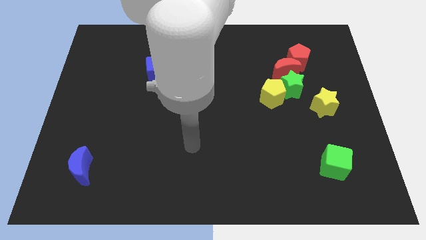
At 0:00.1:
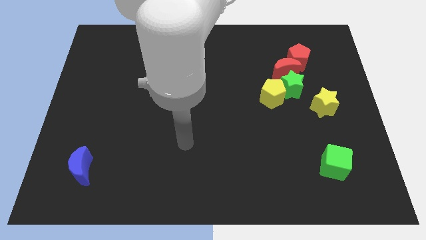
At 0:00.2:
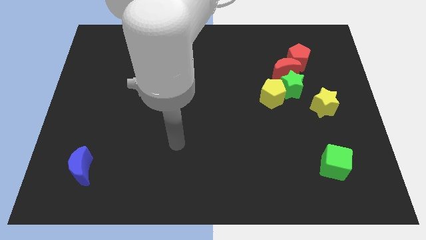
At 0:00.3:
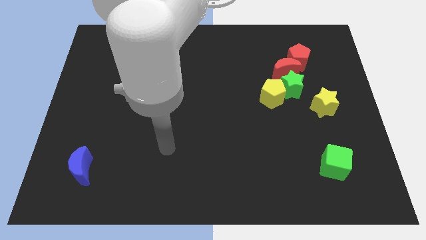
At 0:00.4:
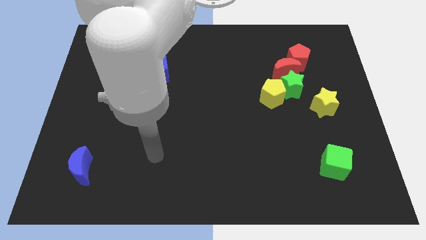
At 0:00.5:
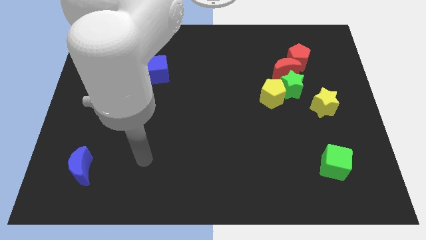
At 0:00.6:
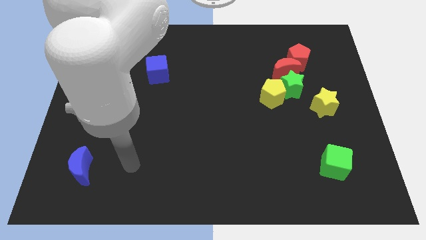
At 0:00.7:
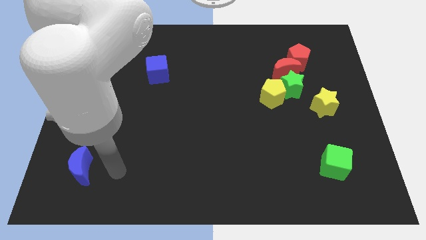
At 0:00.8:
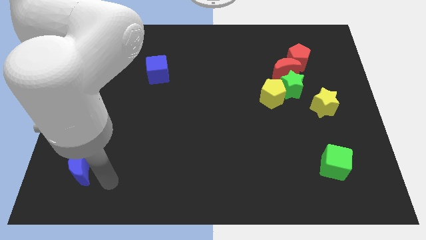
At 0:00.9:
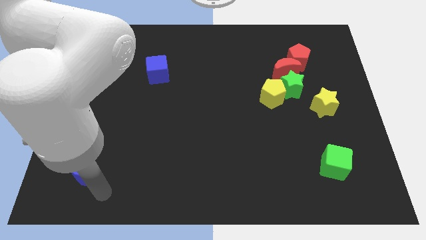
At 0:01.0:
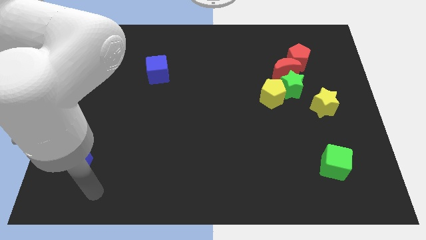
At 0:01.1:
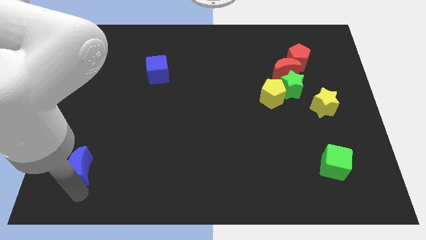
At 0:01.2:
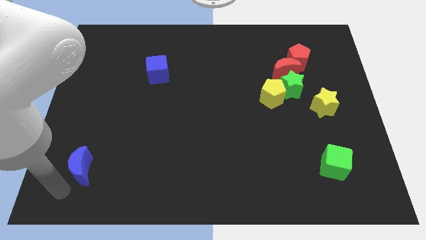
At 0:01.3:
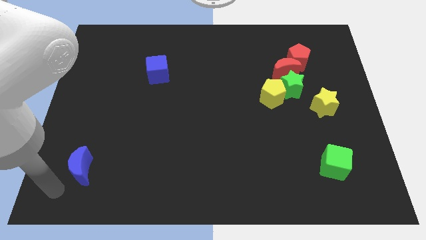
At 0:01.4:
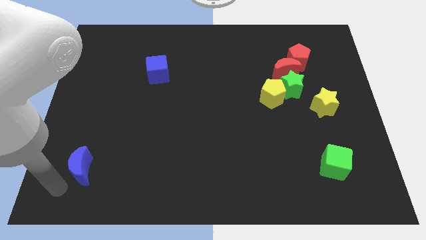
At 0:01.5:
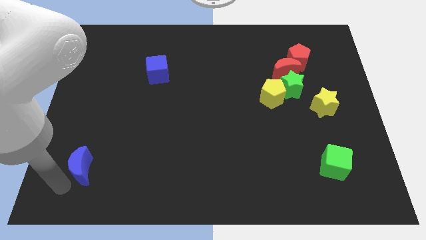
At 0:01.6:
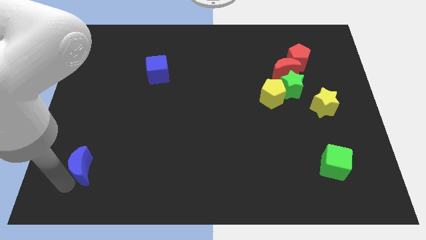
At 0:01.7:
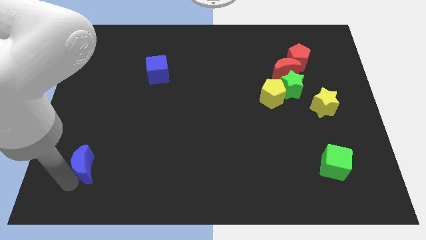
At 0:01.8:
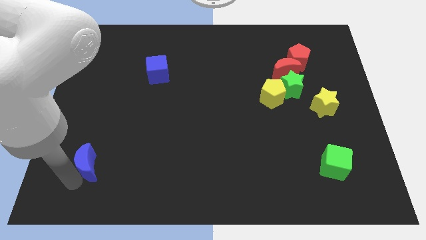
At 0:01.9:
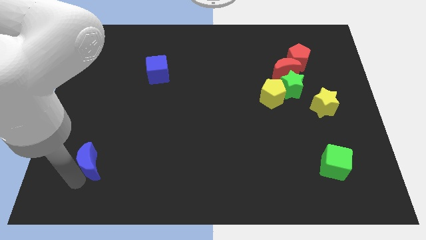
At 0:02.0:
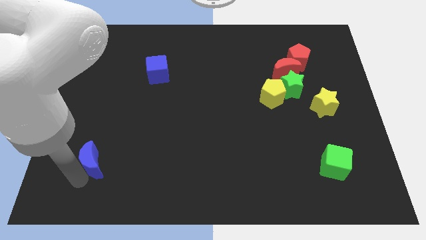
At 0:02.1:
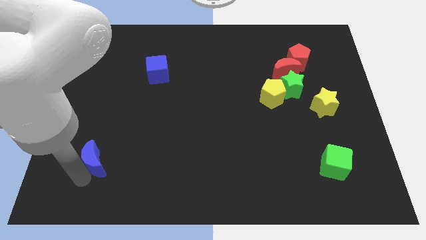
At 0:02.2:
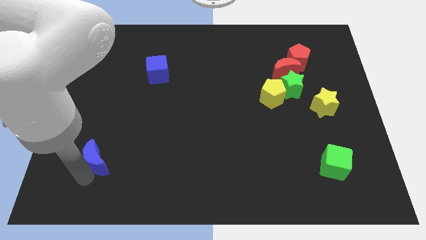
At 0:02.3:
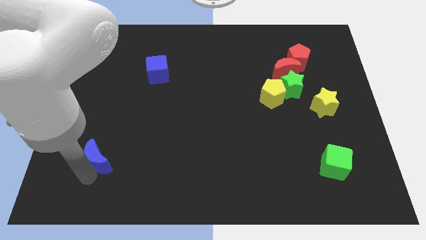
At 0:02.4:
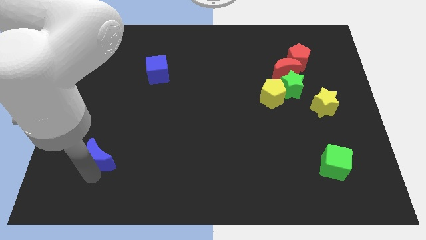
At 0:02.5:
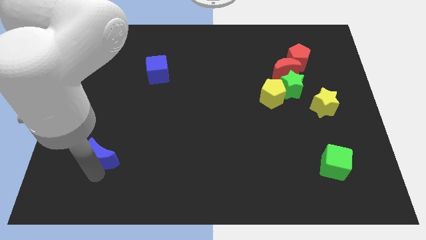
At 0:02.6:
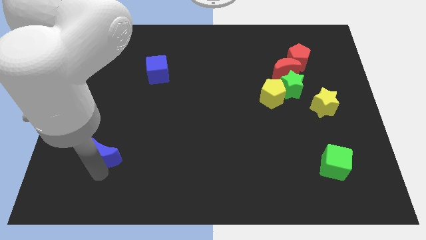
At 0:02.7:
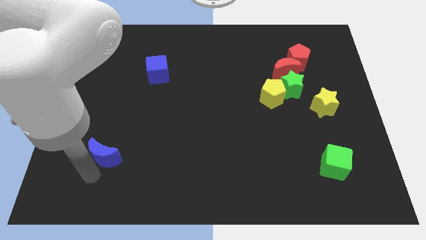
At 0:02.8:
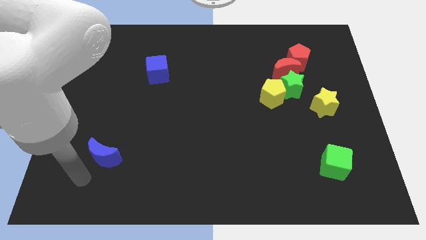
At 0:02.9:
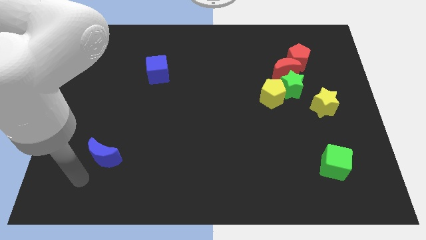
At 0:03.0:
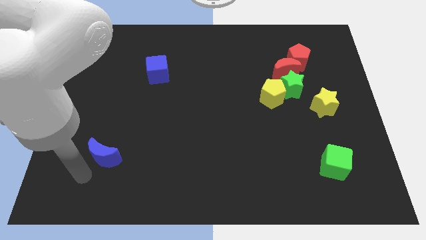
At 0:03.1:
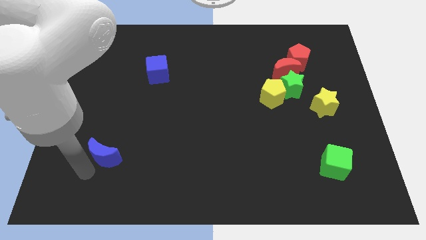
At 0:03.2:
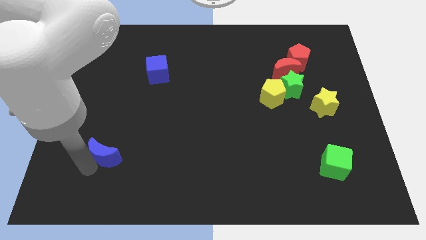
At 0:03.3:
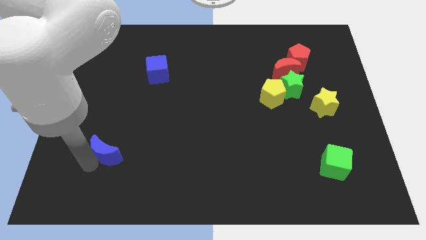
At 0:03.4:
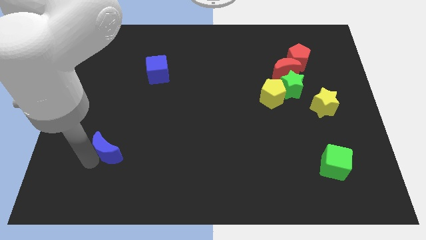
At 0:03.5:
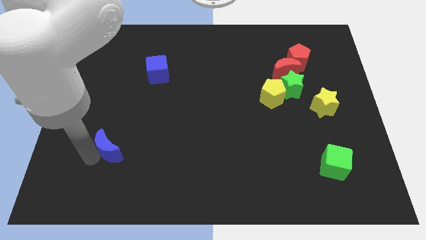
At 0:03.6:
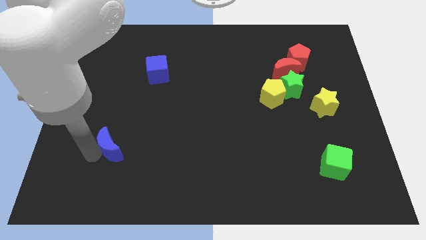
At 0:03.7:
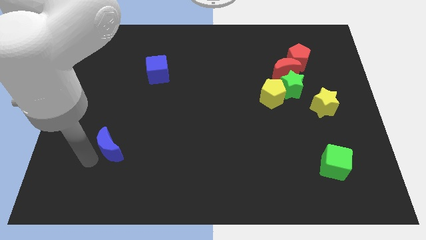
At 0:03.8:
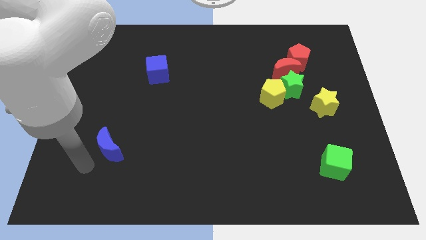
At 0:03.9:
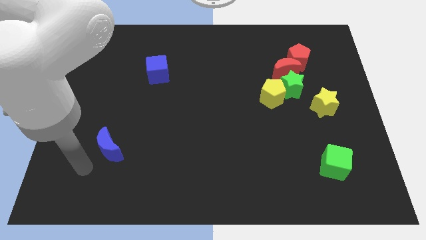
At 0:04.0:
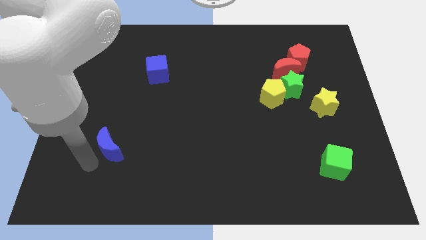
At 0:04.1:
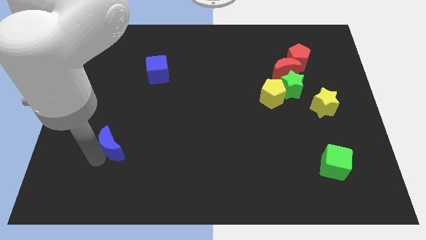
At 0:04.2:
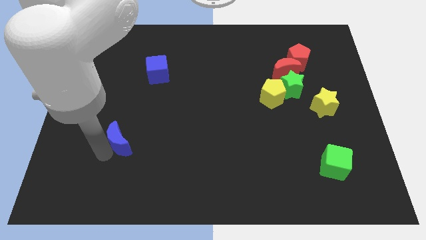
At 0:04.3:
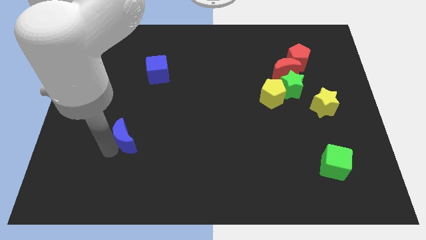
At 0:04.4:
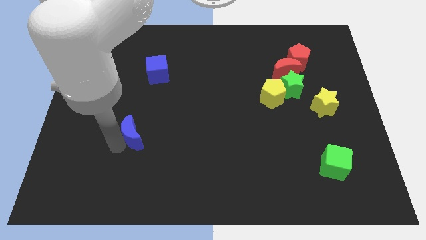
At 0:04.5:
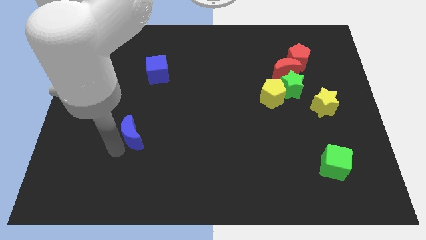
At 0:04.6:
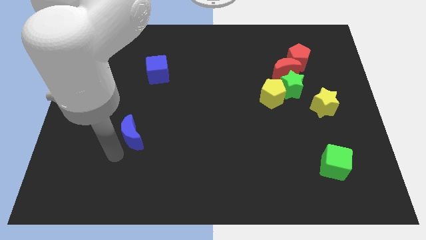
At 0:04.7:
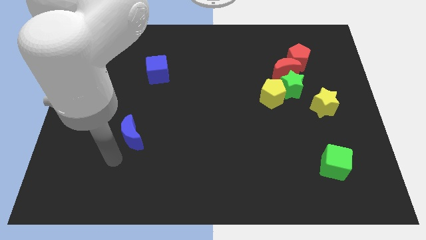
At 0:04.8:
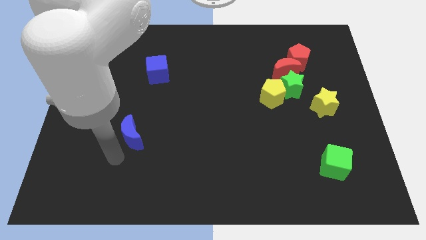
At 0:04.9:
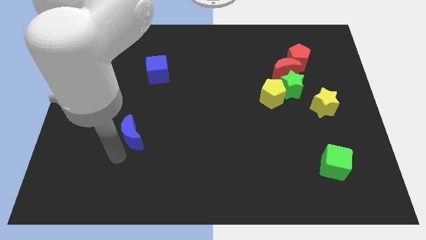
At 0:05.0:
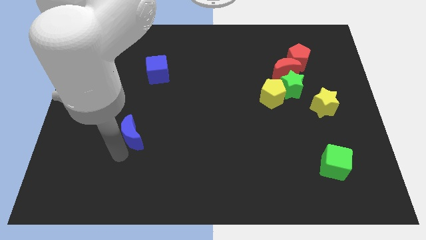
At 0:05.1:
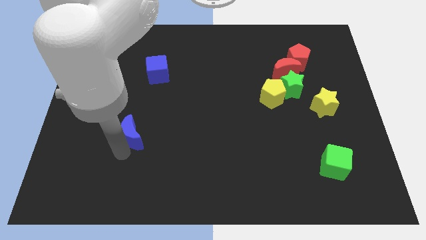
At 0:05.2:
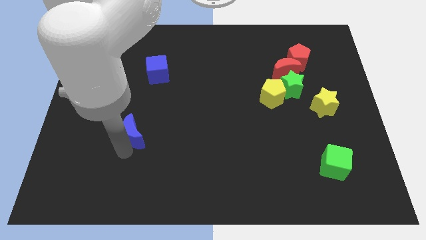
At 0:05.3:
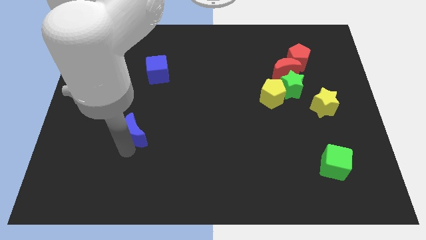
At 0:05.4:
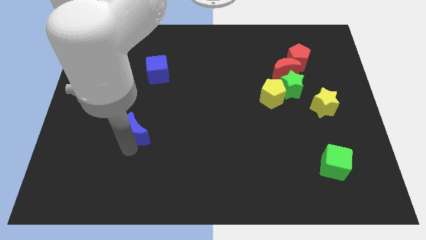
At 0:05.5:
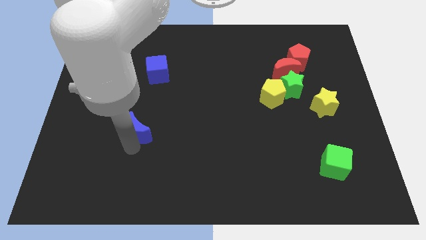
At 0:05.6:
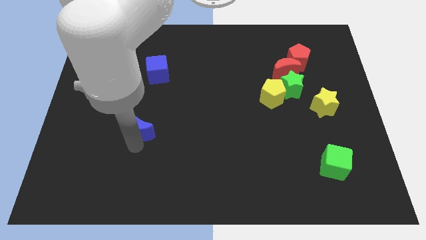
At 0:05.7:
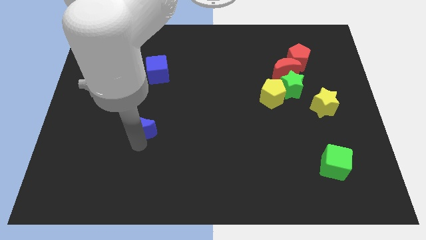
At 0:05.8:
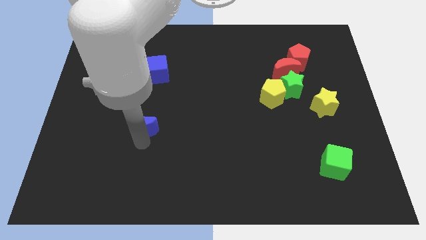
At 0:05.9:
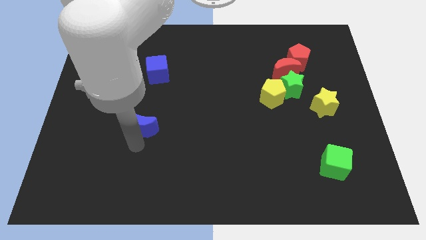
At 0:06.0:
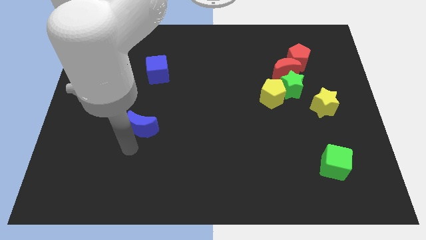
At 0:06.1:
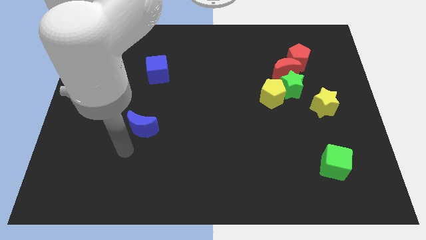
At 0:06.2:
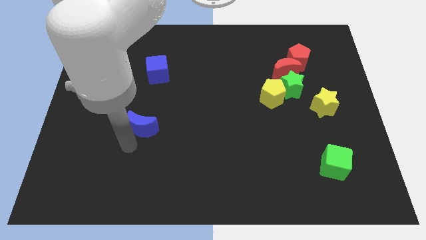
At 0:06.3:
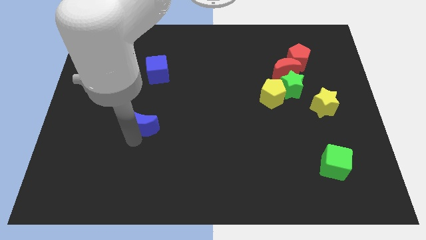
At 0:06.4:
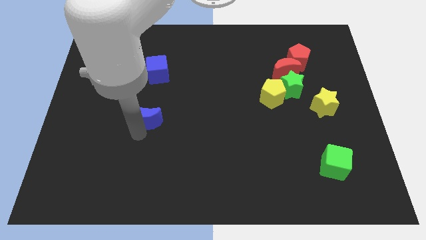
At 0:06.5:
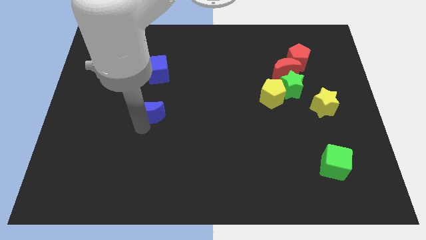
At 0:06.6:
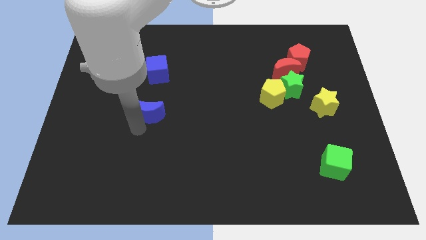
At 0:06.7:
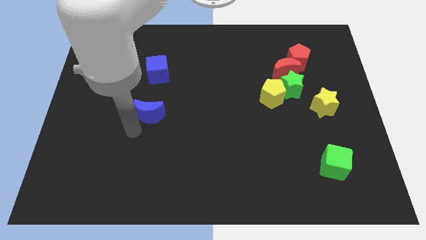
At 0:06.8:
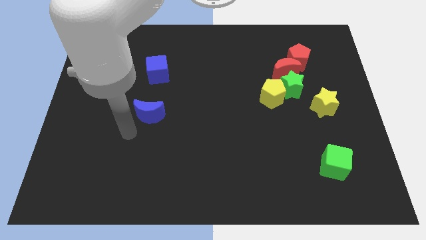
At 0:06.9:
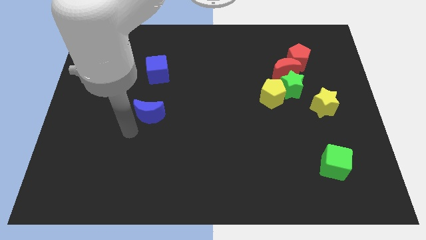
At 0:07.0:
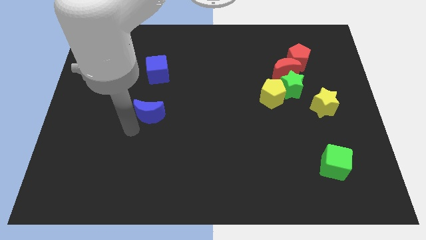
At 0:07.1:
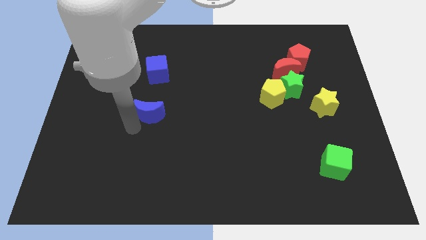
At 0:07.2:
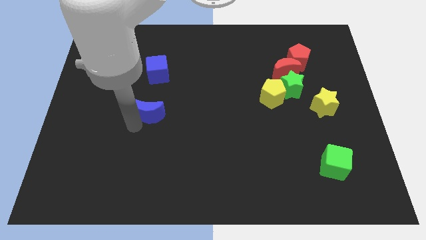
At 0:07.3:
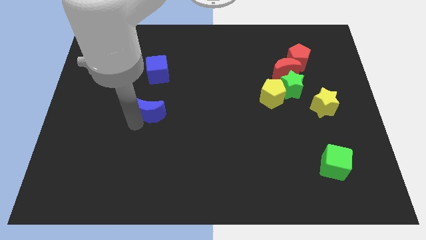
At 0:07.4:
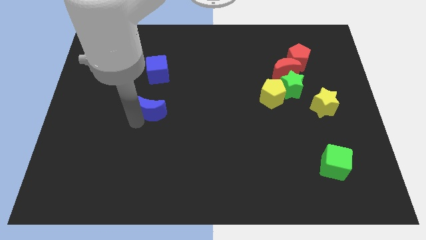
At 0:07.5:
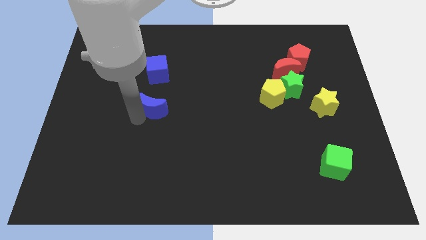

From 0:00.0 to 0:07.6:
move the blue moon upwards and then to the right

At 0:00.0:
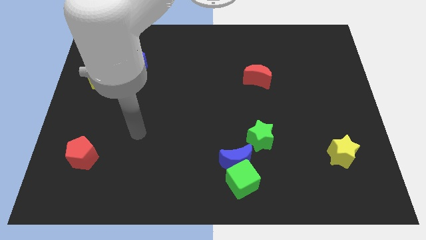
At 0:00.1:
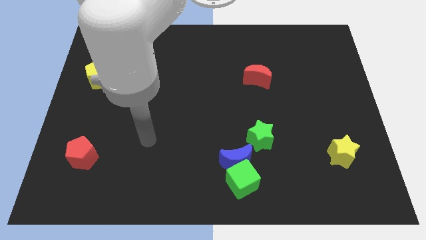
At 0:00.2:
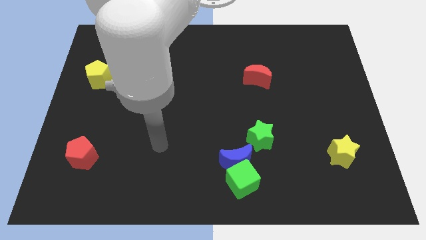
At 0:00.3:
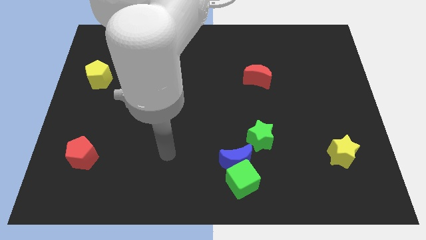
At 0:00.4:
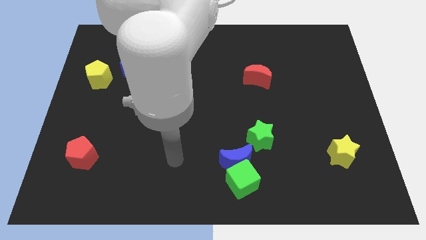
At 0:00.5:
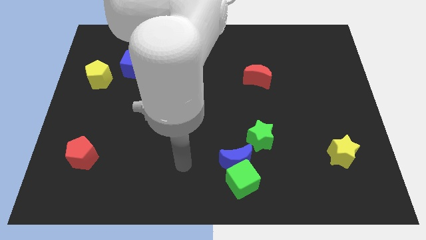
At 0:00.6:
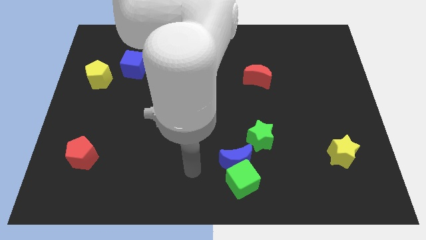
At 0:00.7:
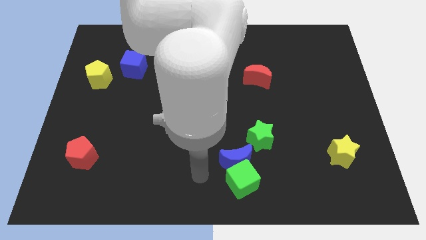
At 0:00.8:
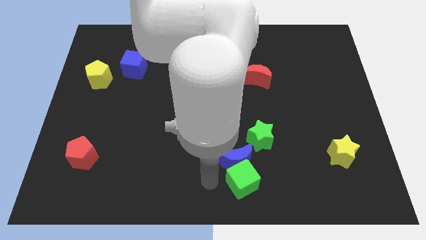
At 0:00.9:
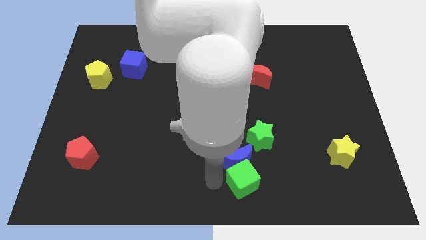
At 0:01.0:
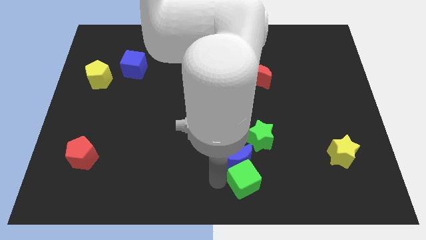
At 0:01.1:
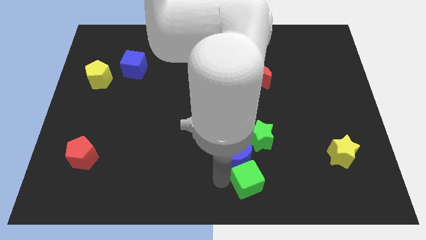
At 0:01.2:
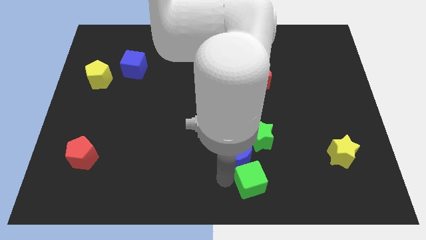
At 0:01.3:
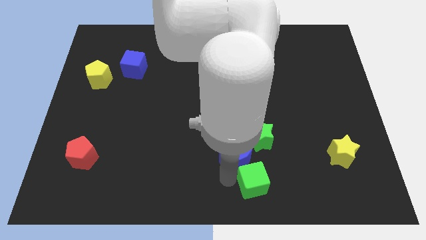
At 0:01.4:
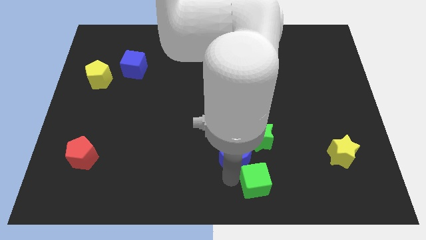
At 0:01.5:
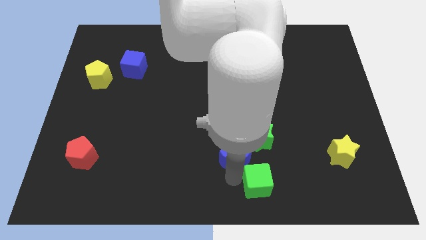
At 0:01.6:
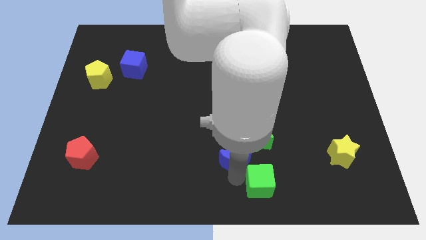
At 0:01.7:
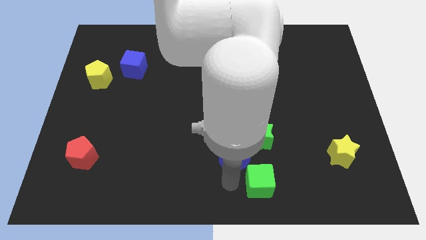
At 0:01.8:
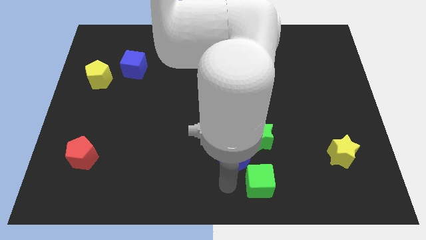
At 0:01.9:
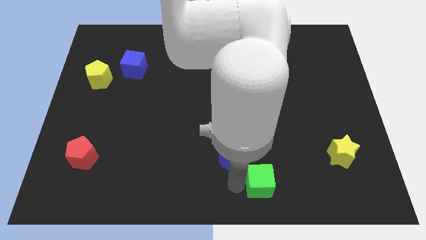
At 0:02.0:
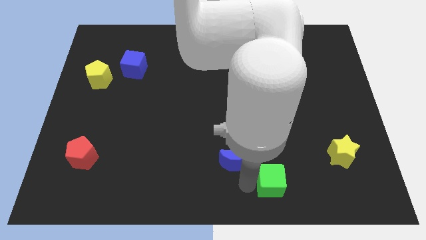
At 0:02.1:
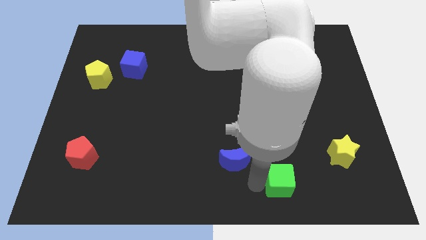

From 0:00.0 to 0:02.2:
move the green cube right a little
